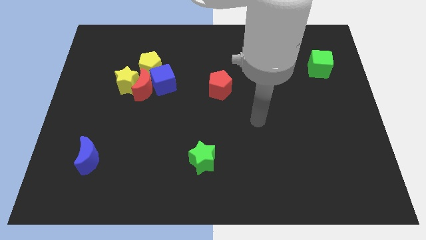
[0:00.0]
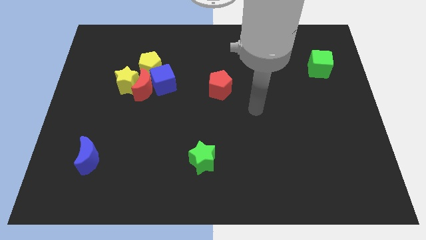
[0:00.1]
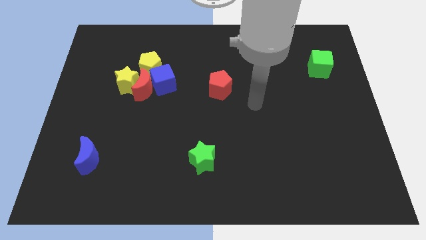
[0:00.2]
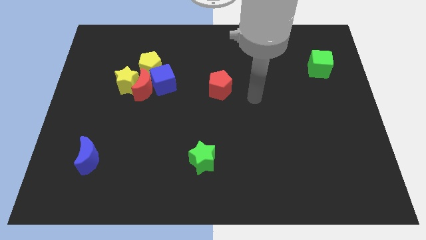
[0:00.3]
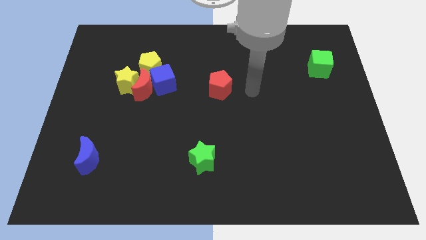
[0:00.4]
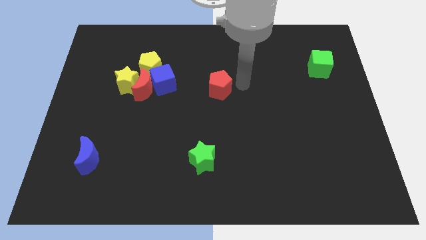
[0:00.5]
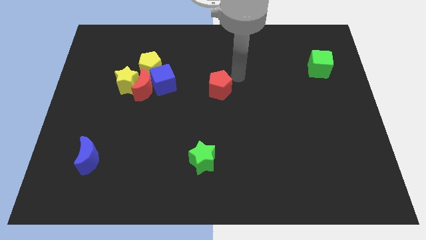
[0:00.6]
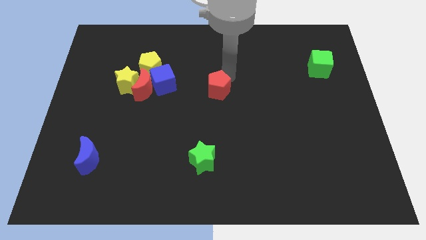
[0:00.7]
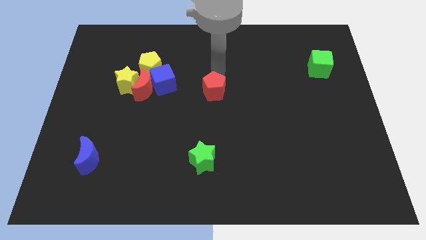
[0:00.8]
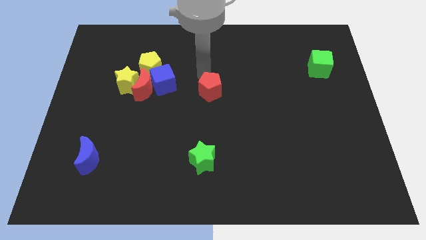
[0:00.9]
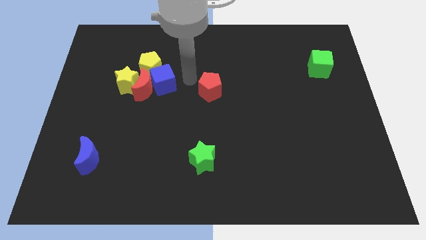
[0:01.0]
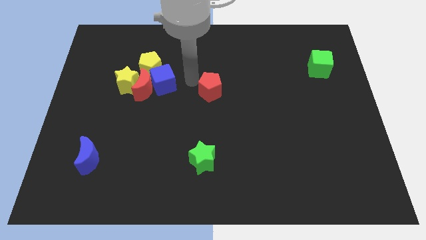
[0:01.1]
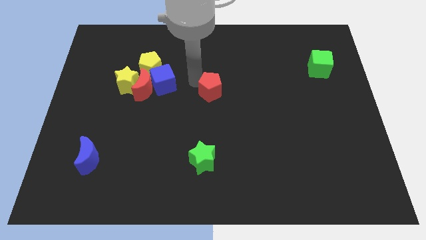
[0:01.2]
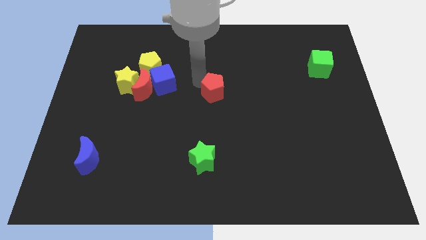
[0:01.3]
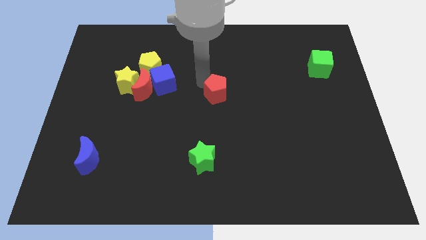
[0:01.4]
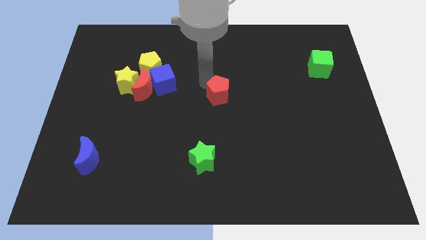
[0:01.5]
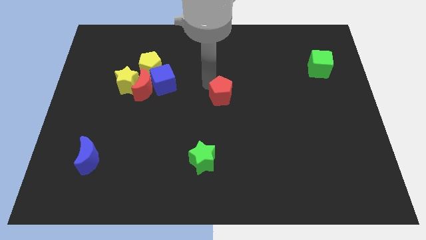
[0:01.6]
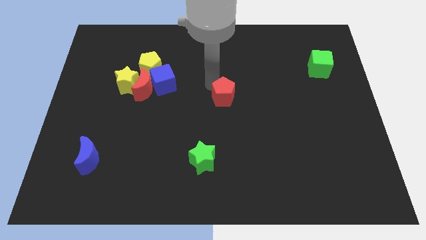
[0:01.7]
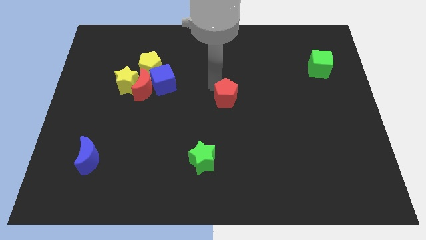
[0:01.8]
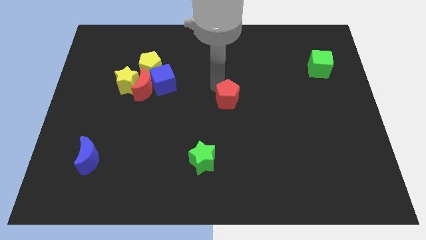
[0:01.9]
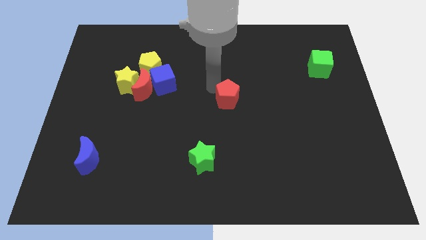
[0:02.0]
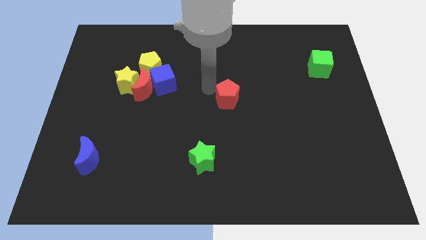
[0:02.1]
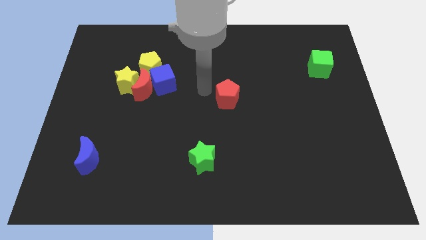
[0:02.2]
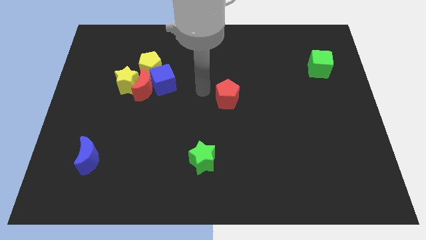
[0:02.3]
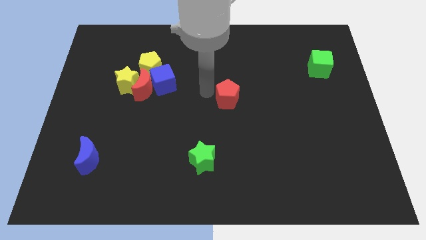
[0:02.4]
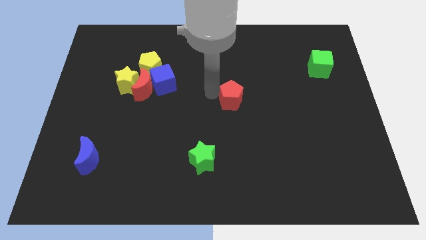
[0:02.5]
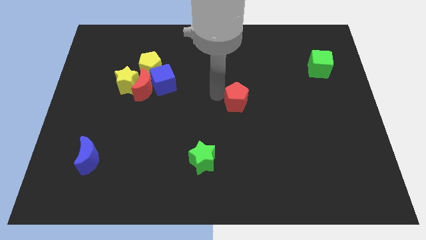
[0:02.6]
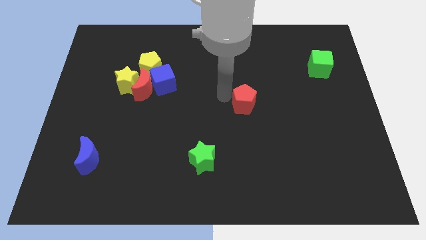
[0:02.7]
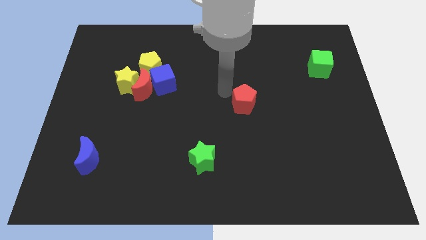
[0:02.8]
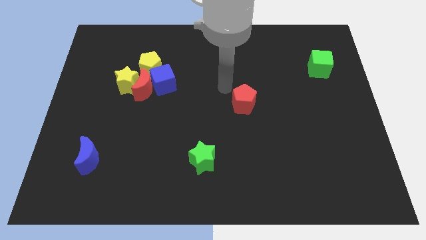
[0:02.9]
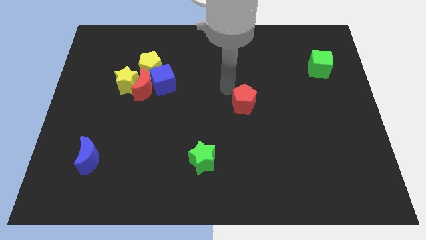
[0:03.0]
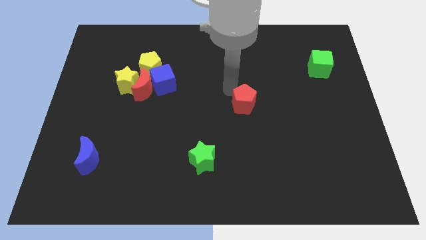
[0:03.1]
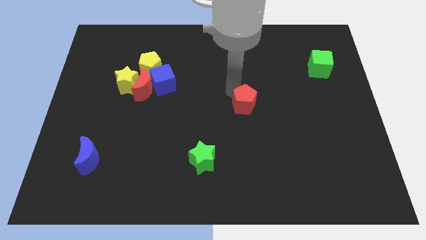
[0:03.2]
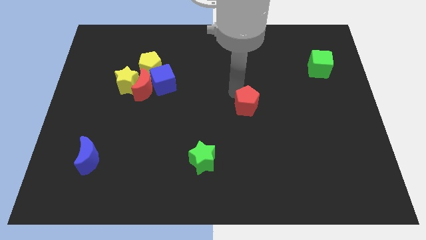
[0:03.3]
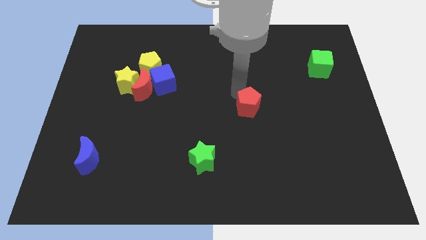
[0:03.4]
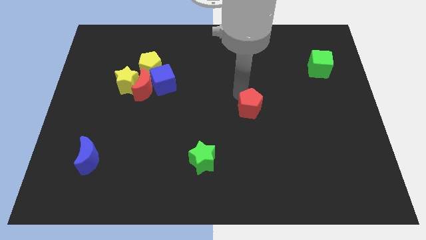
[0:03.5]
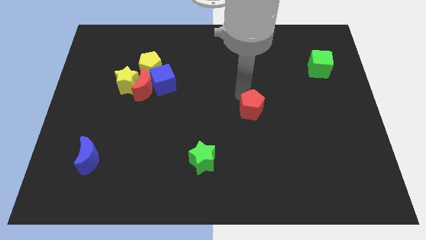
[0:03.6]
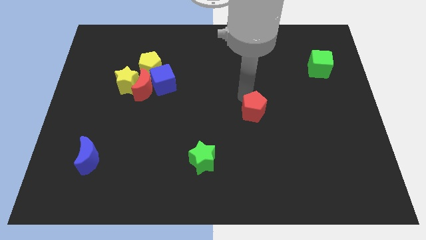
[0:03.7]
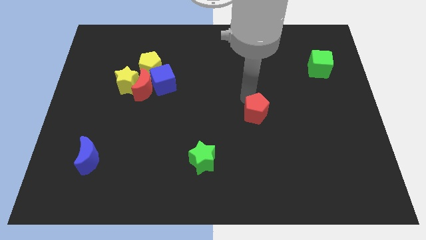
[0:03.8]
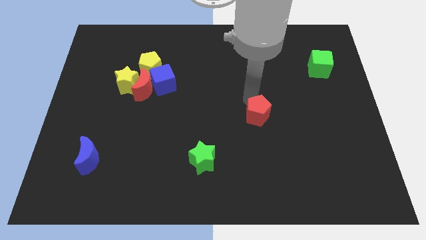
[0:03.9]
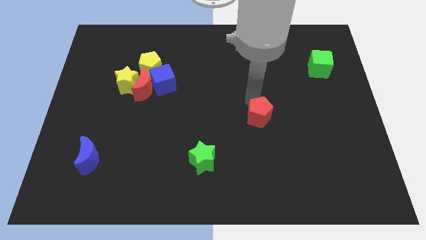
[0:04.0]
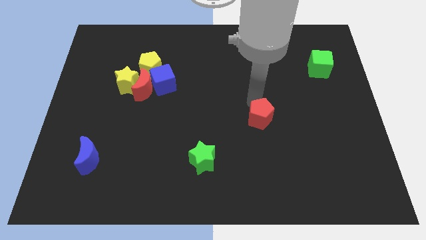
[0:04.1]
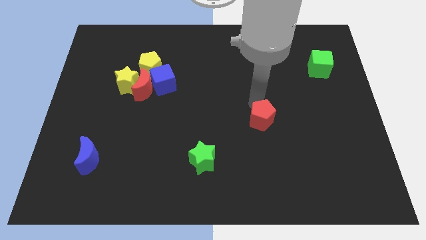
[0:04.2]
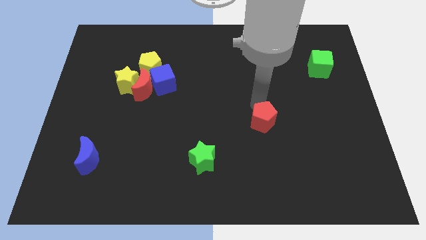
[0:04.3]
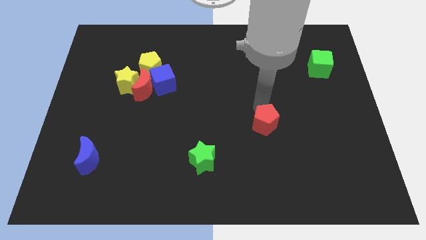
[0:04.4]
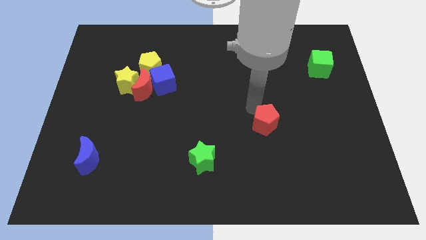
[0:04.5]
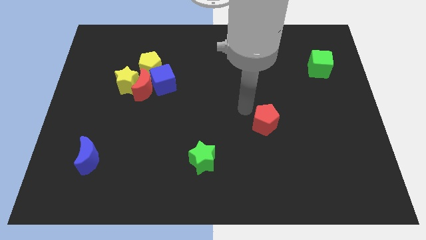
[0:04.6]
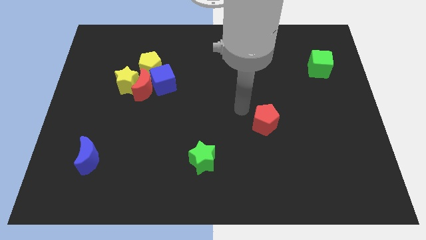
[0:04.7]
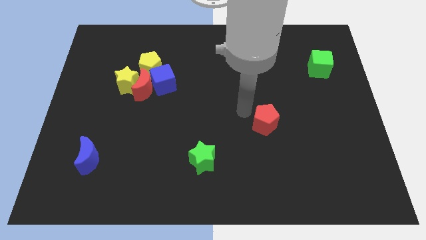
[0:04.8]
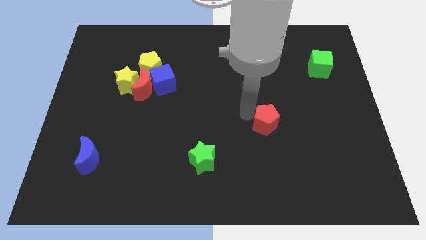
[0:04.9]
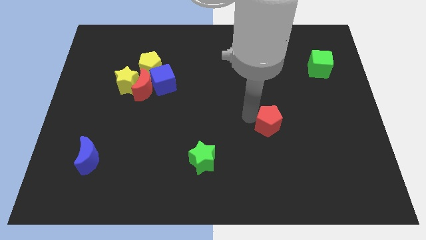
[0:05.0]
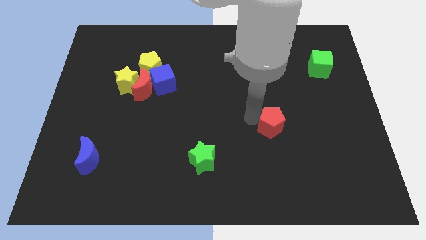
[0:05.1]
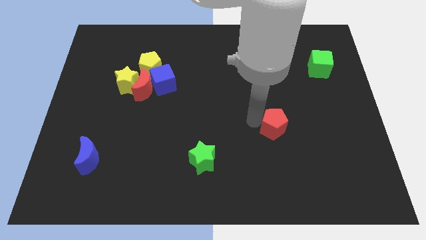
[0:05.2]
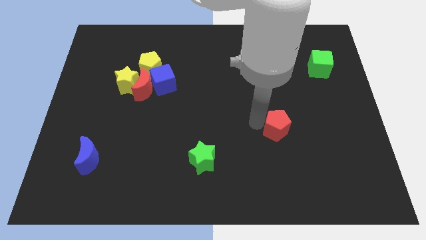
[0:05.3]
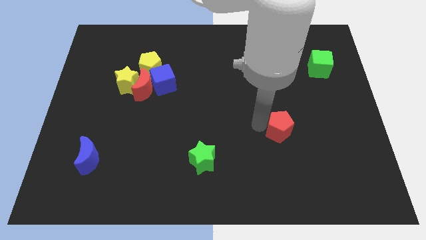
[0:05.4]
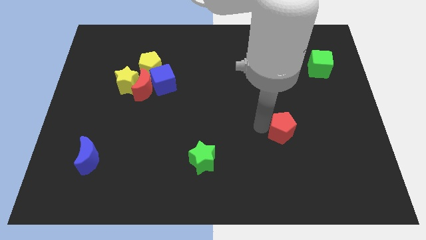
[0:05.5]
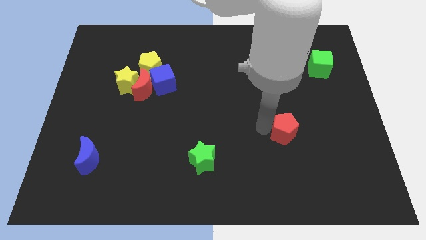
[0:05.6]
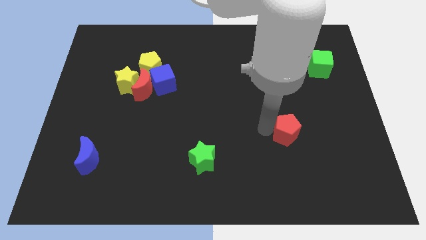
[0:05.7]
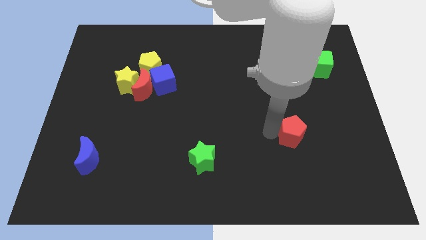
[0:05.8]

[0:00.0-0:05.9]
push the red pentagon downwards and then to the right

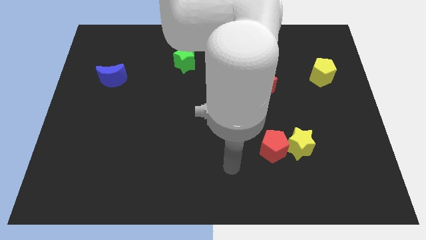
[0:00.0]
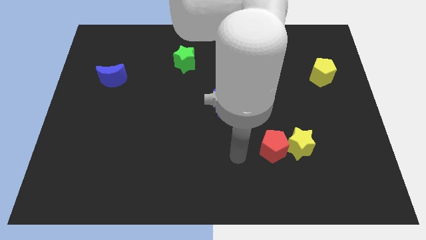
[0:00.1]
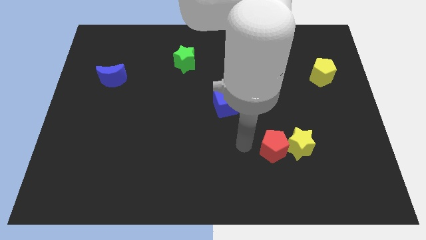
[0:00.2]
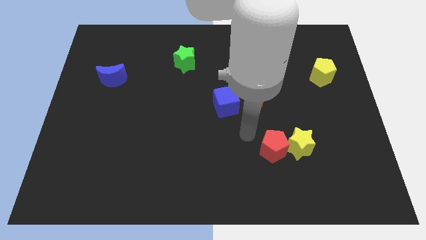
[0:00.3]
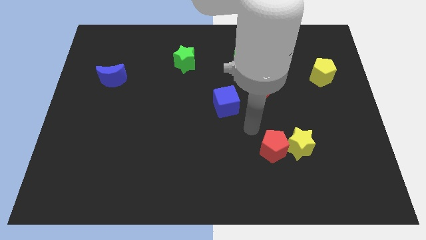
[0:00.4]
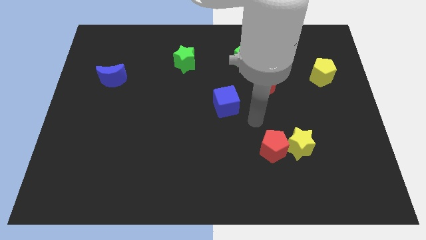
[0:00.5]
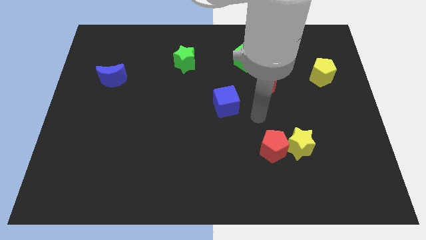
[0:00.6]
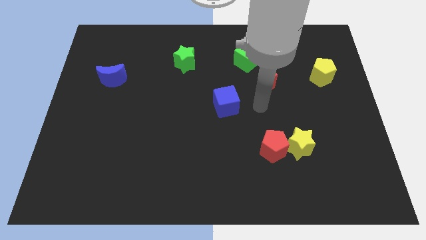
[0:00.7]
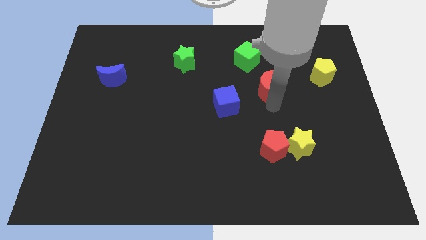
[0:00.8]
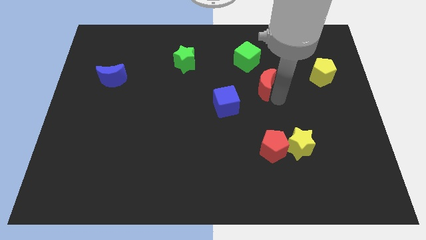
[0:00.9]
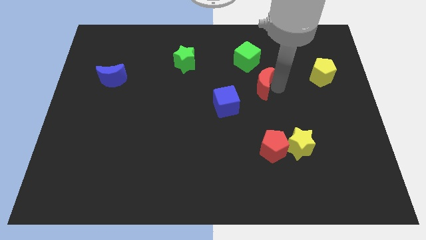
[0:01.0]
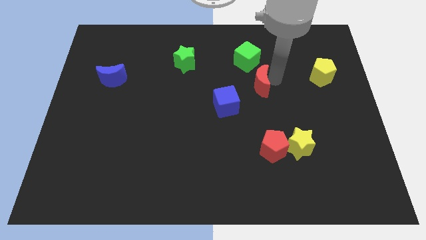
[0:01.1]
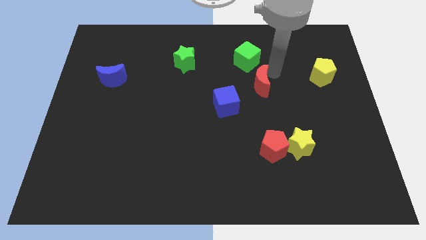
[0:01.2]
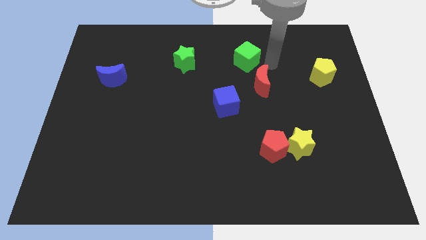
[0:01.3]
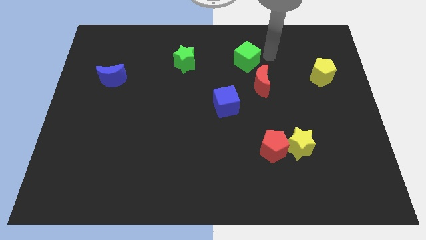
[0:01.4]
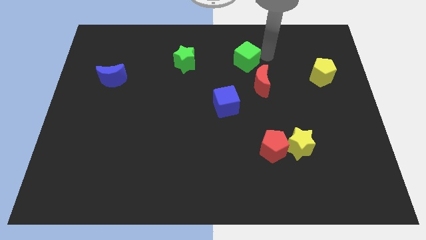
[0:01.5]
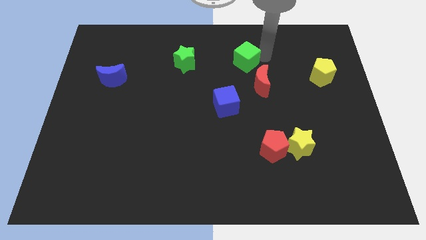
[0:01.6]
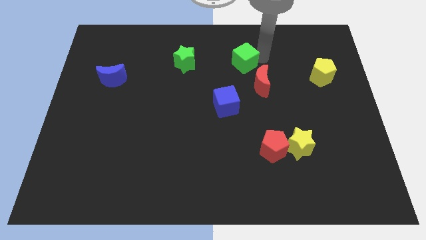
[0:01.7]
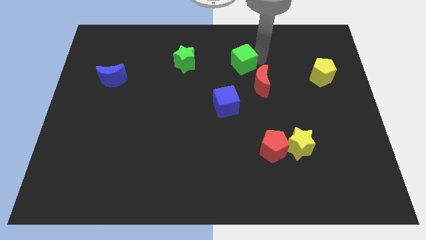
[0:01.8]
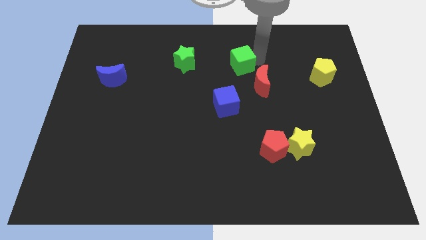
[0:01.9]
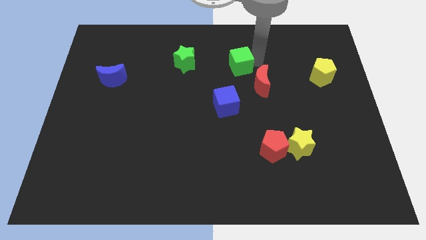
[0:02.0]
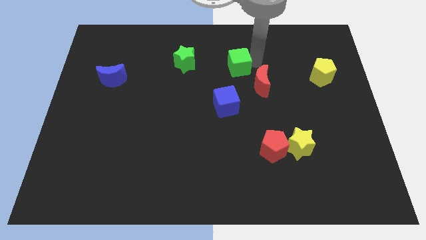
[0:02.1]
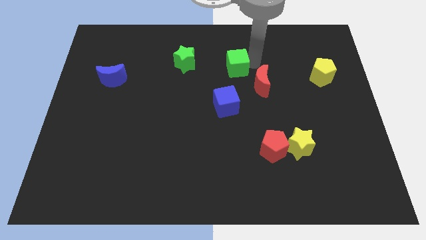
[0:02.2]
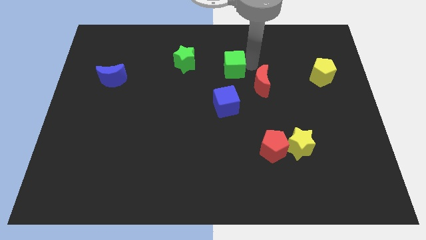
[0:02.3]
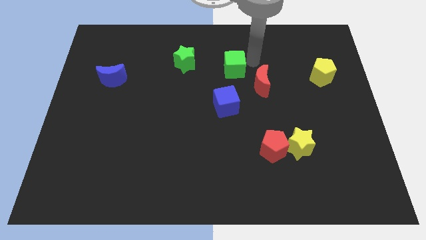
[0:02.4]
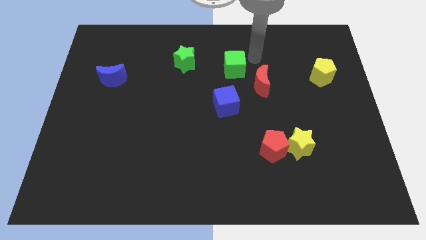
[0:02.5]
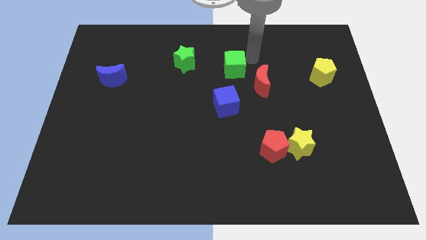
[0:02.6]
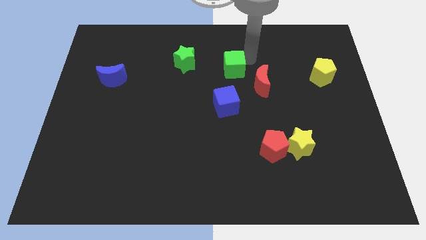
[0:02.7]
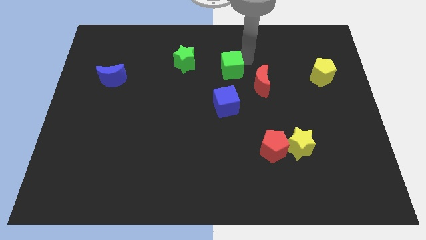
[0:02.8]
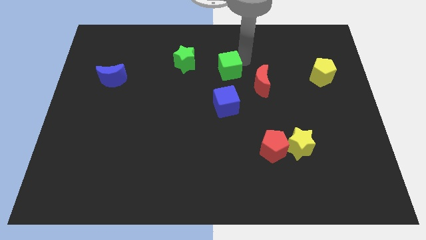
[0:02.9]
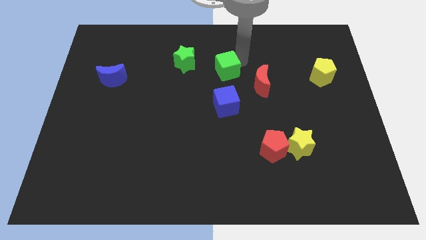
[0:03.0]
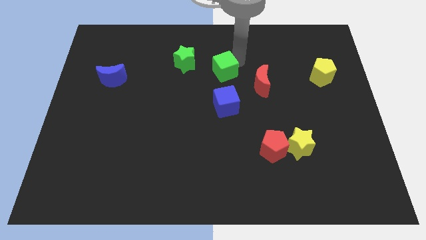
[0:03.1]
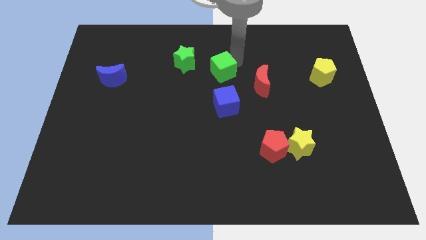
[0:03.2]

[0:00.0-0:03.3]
push the green cube a bit down and to the left diagonally
